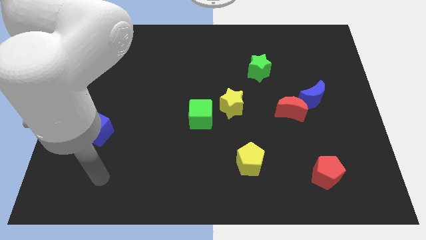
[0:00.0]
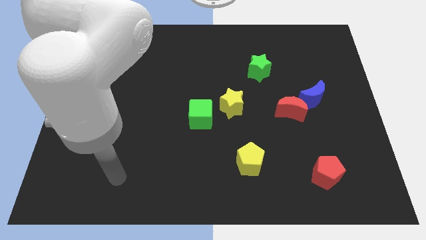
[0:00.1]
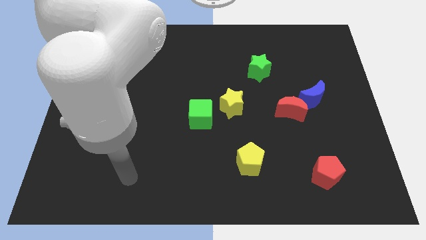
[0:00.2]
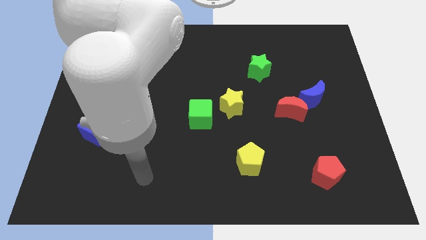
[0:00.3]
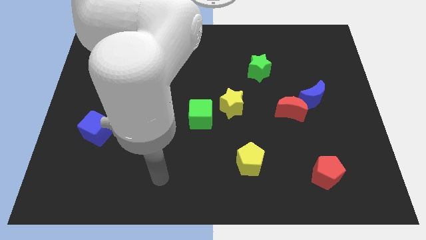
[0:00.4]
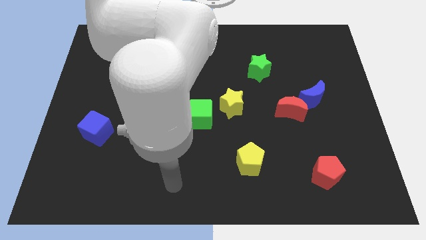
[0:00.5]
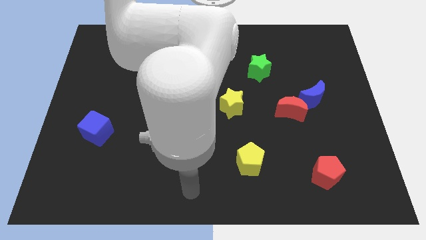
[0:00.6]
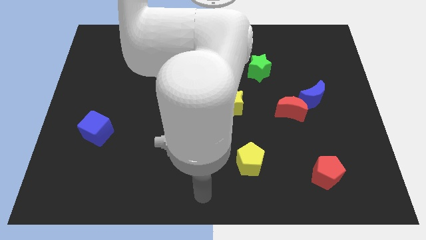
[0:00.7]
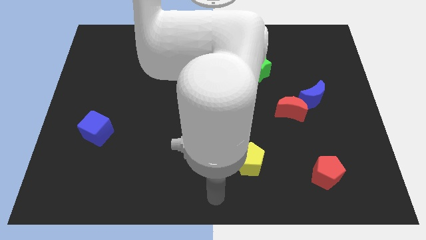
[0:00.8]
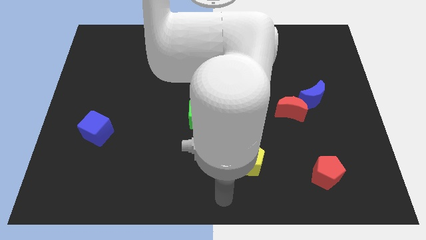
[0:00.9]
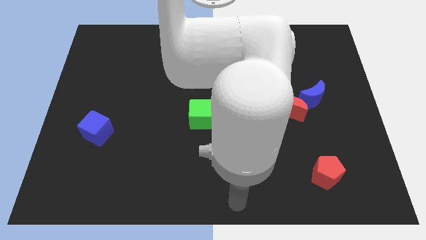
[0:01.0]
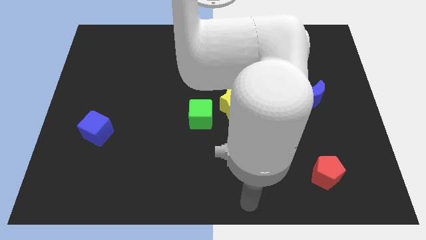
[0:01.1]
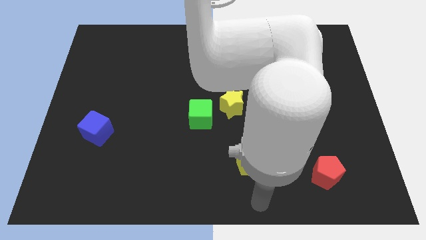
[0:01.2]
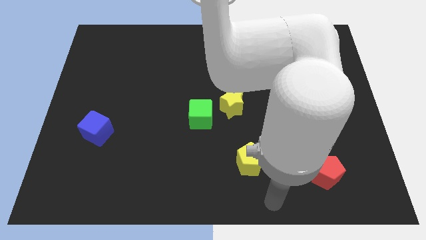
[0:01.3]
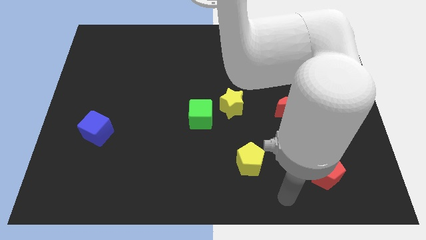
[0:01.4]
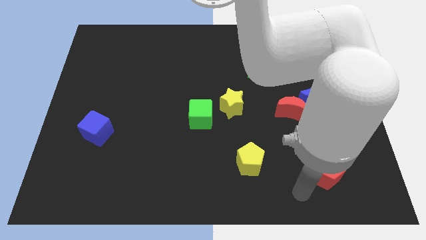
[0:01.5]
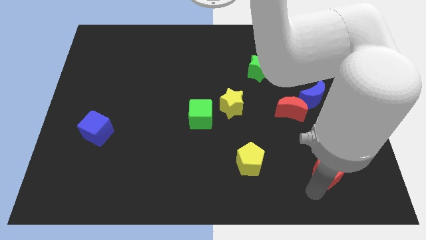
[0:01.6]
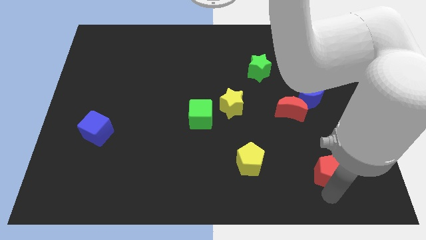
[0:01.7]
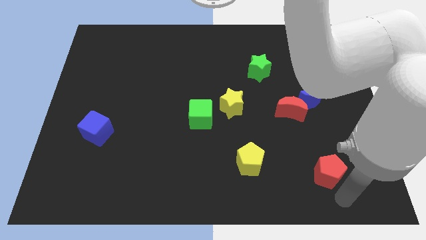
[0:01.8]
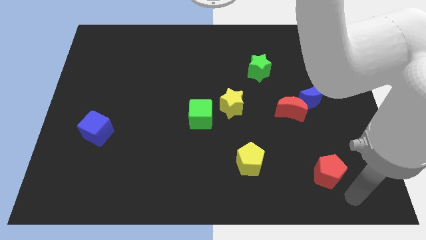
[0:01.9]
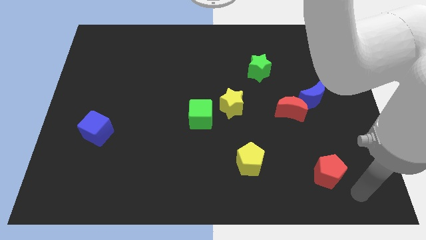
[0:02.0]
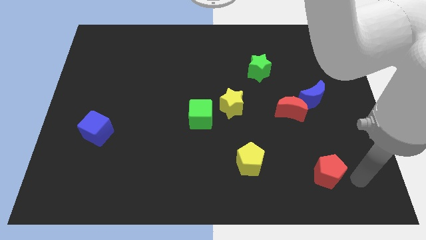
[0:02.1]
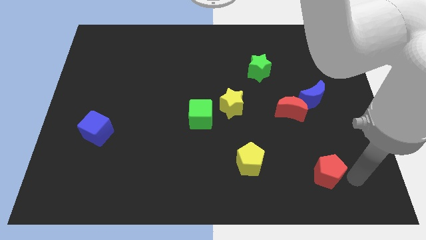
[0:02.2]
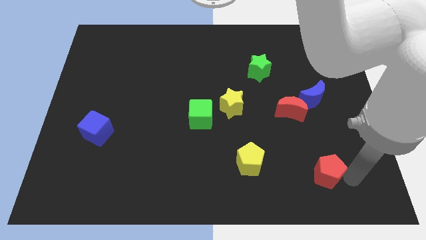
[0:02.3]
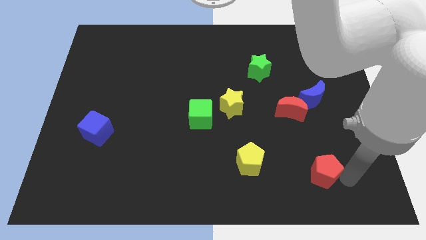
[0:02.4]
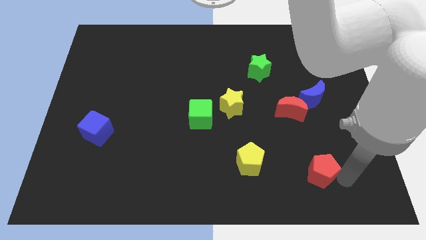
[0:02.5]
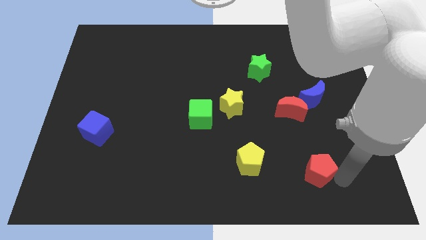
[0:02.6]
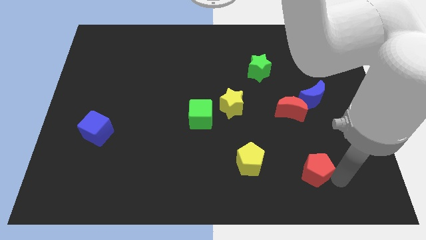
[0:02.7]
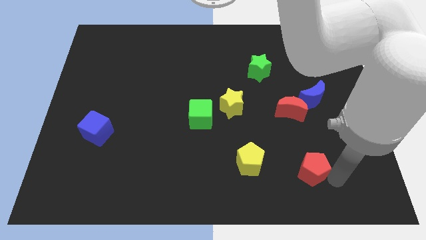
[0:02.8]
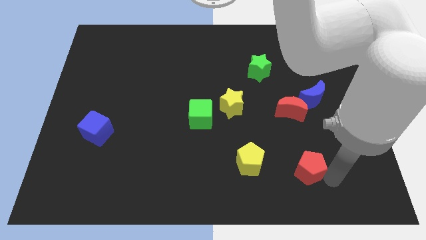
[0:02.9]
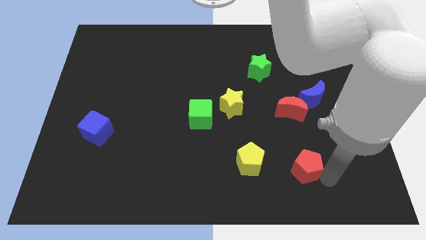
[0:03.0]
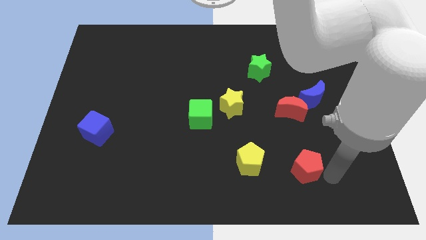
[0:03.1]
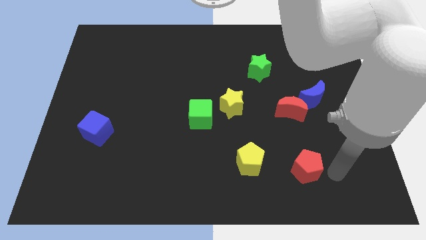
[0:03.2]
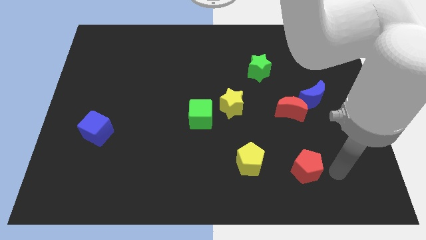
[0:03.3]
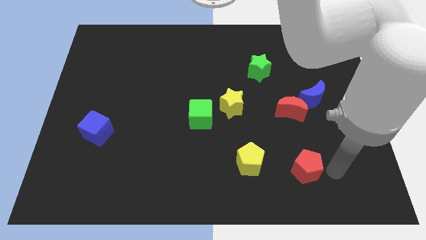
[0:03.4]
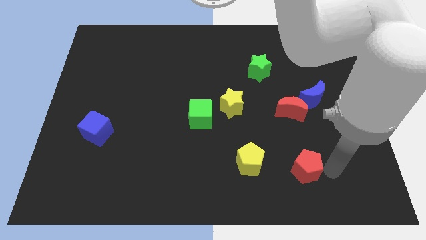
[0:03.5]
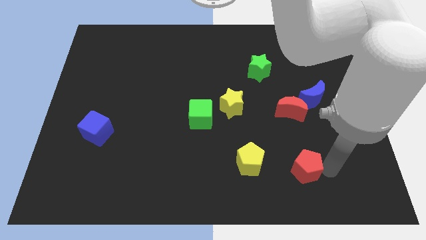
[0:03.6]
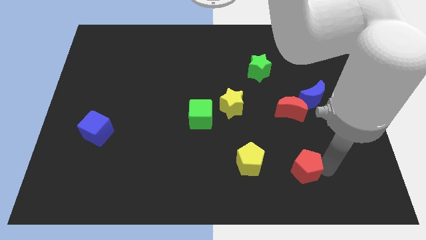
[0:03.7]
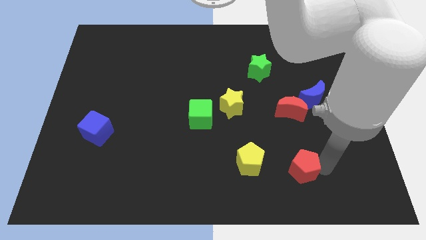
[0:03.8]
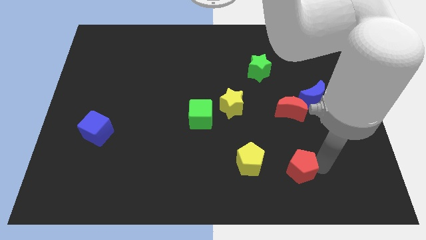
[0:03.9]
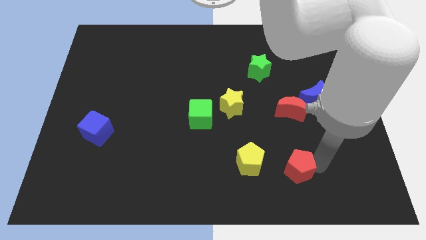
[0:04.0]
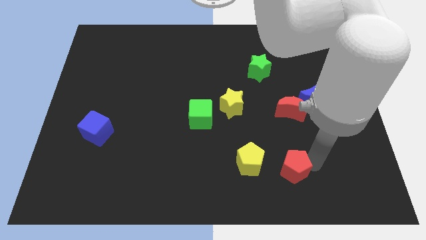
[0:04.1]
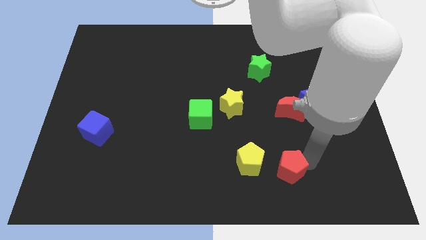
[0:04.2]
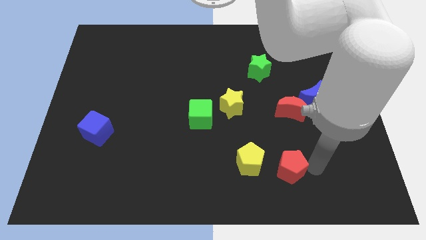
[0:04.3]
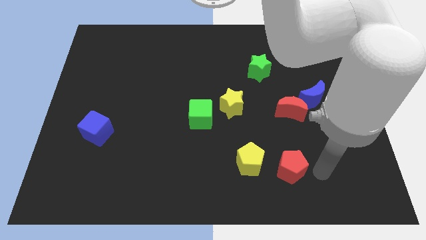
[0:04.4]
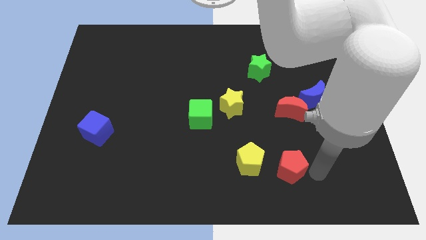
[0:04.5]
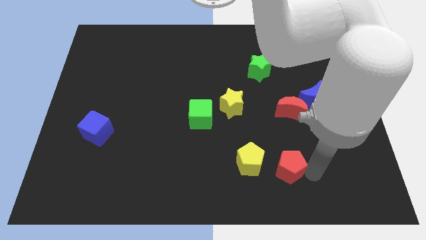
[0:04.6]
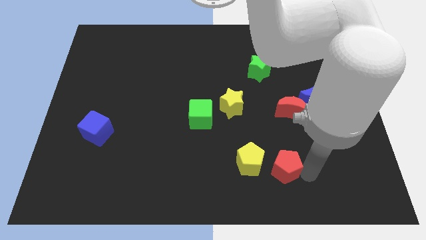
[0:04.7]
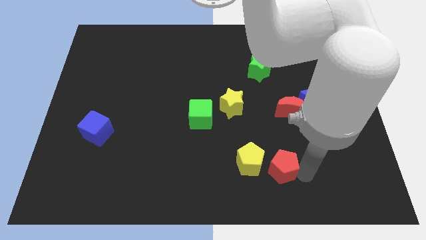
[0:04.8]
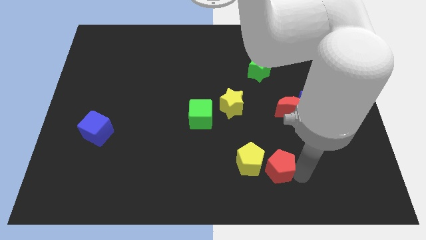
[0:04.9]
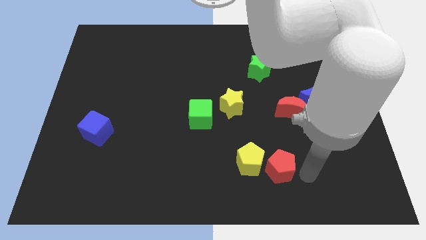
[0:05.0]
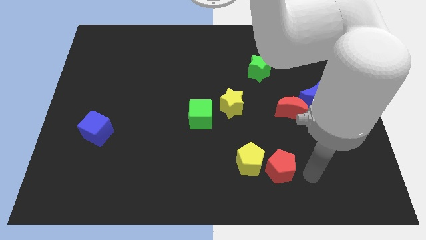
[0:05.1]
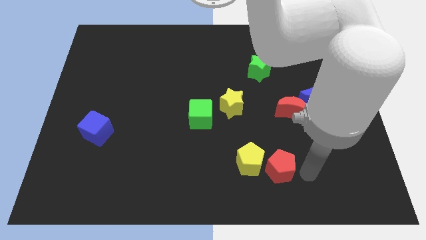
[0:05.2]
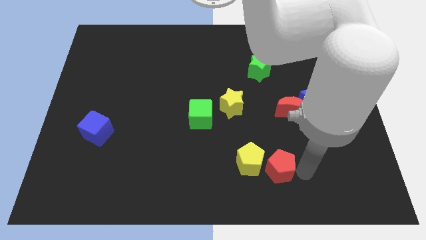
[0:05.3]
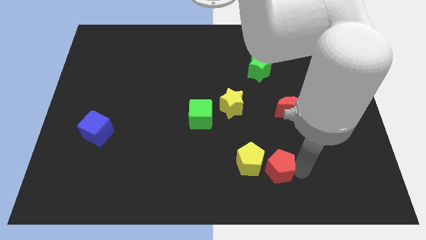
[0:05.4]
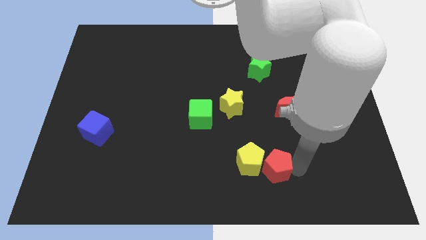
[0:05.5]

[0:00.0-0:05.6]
push the red pentagon next to the yellow pentagon

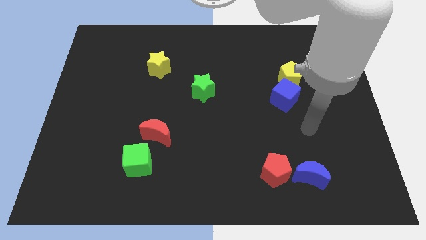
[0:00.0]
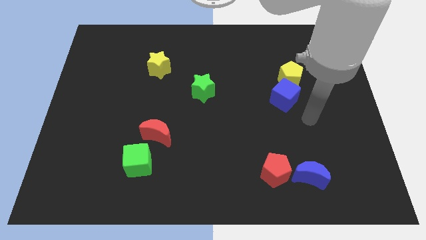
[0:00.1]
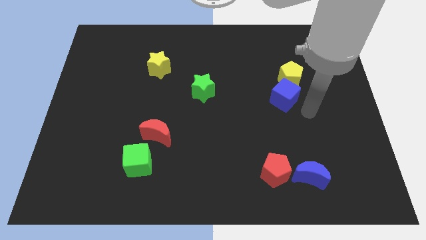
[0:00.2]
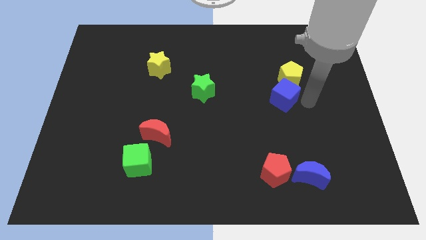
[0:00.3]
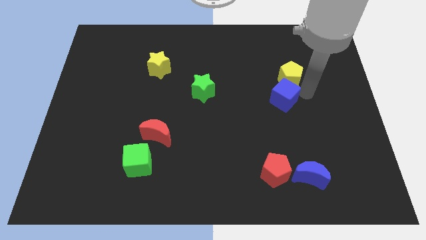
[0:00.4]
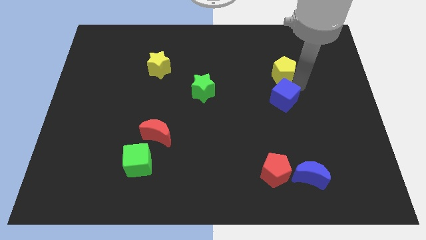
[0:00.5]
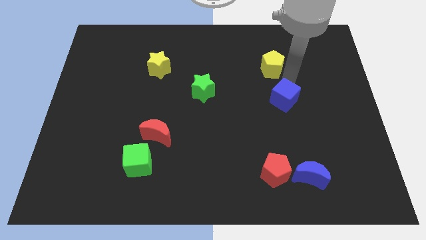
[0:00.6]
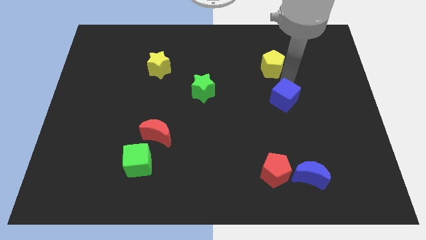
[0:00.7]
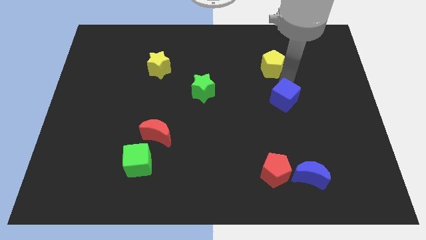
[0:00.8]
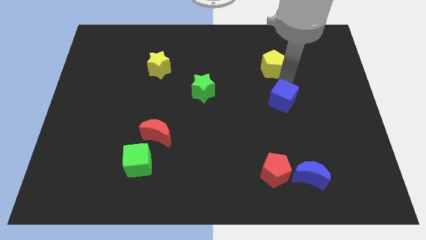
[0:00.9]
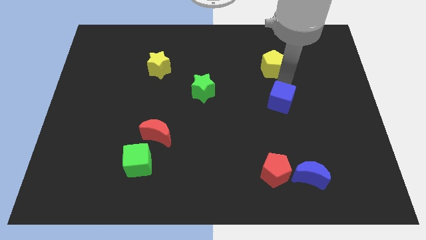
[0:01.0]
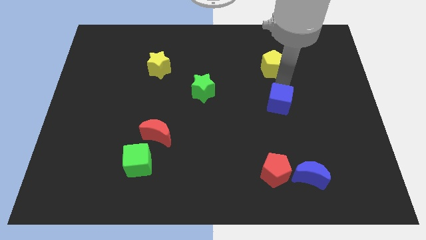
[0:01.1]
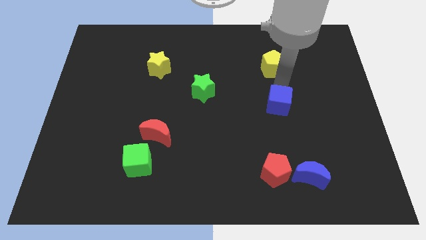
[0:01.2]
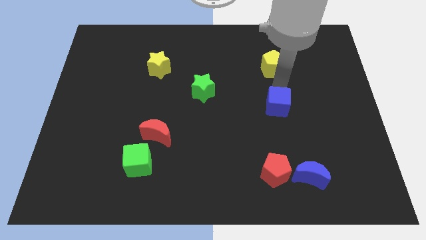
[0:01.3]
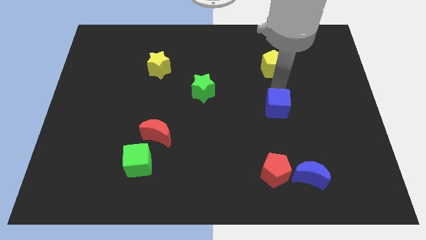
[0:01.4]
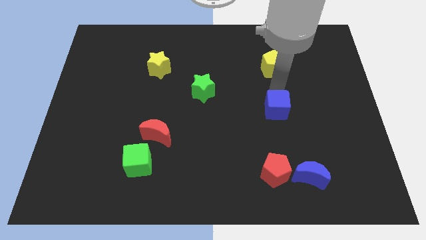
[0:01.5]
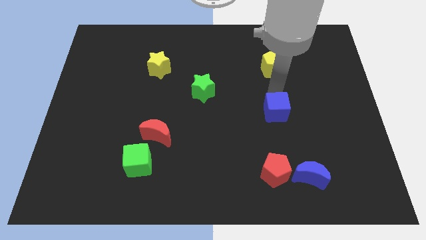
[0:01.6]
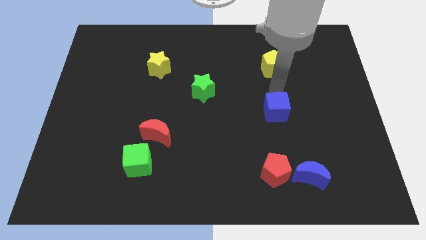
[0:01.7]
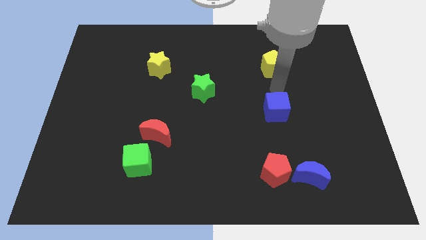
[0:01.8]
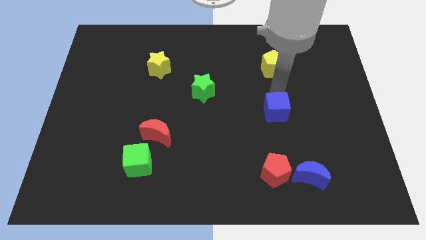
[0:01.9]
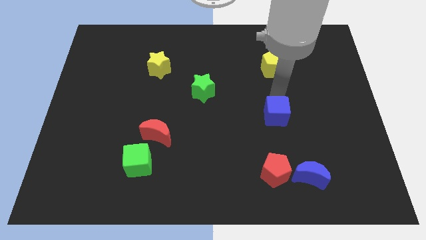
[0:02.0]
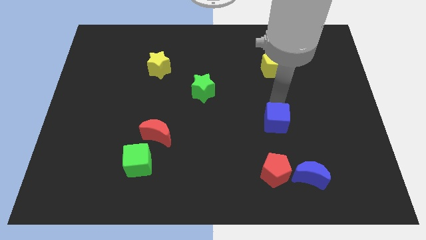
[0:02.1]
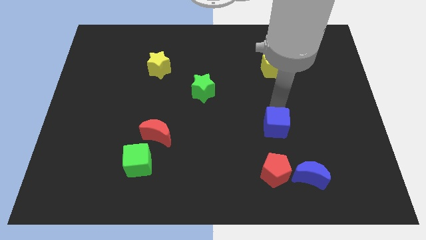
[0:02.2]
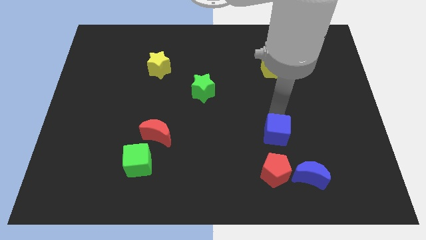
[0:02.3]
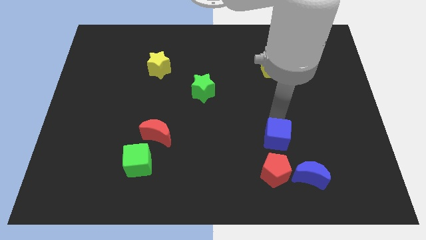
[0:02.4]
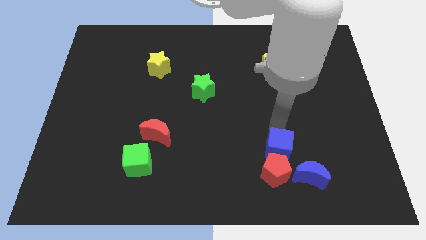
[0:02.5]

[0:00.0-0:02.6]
slide the blue cube towards the red pentagon
